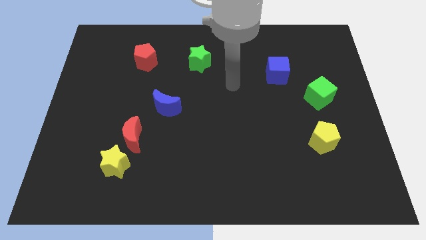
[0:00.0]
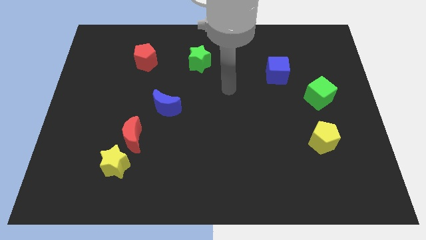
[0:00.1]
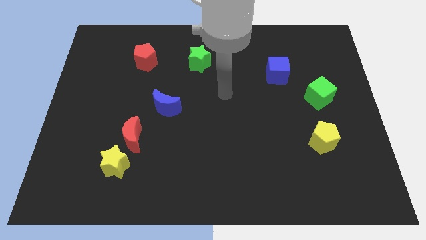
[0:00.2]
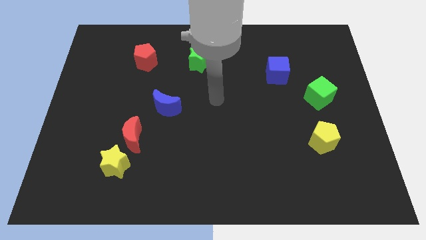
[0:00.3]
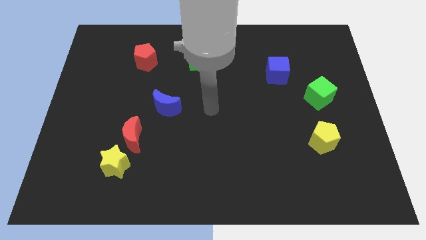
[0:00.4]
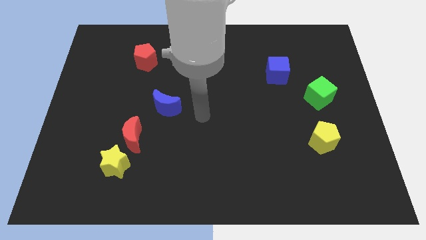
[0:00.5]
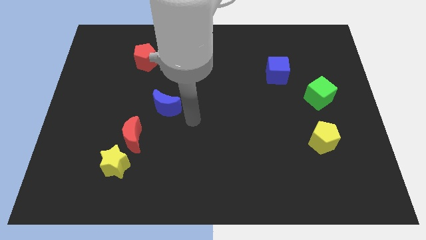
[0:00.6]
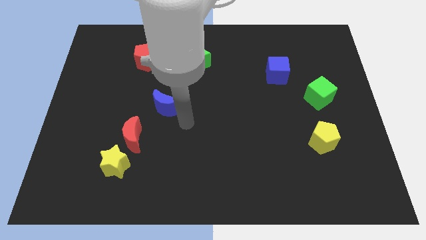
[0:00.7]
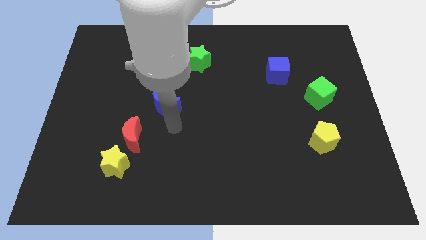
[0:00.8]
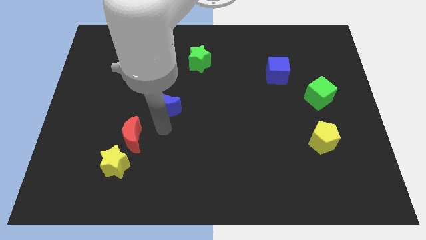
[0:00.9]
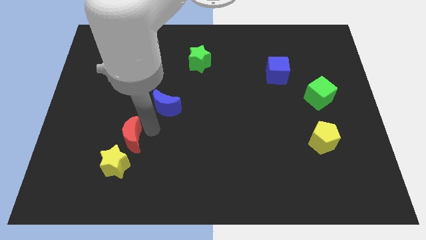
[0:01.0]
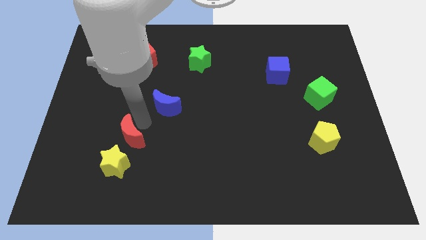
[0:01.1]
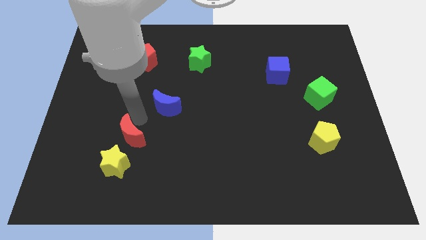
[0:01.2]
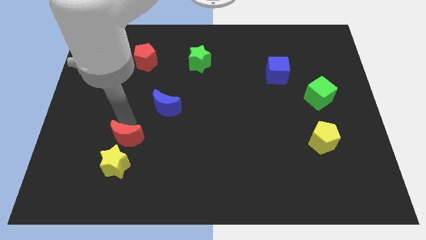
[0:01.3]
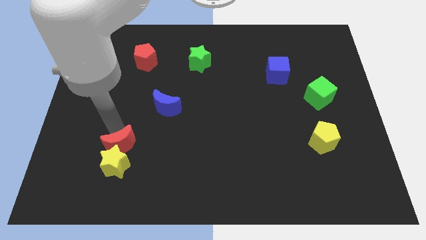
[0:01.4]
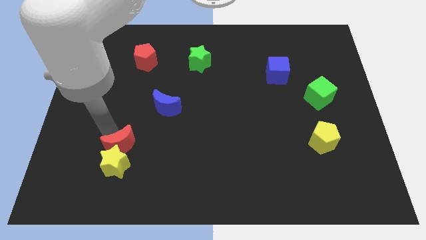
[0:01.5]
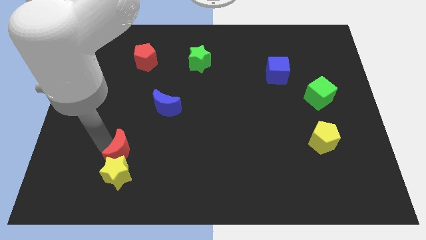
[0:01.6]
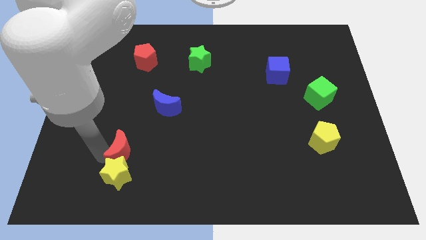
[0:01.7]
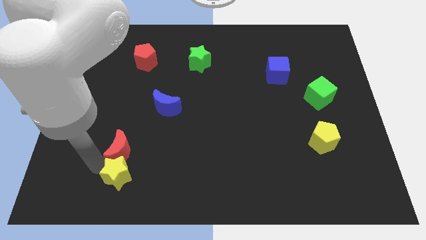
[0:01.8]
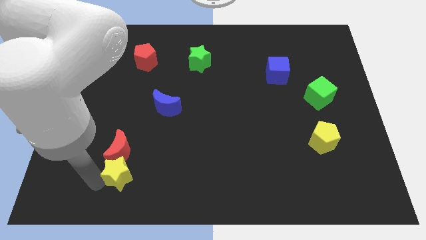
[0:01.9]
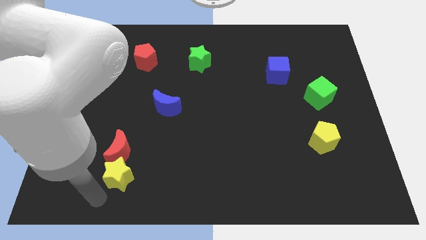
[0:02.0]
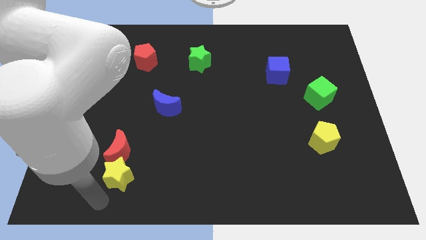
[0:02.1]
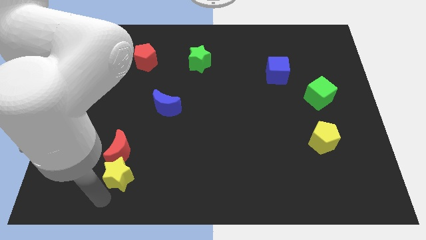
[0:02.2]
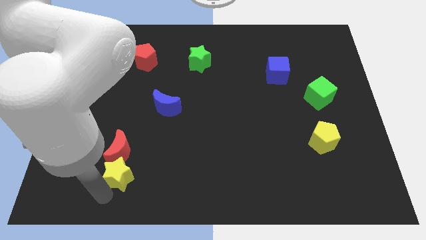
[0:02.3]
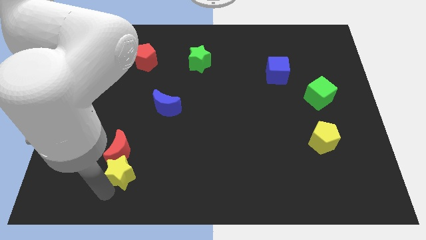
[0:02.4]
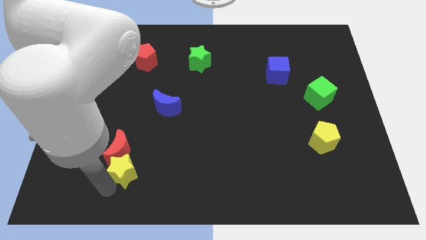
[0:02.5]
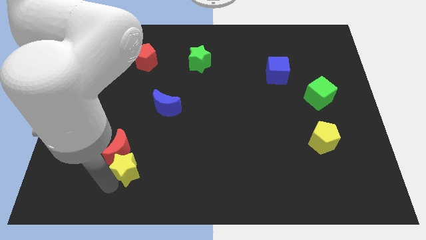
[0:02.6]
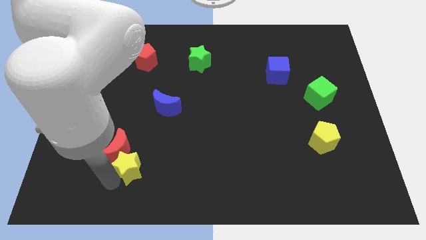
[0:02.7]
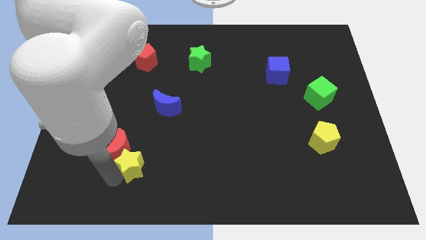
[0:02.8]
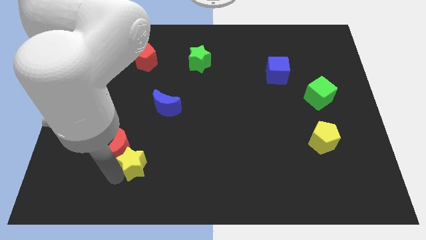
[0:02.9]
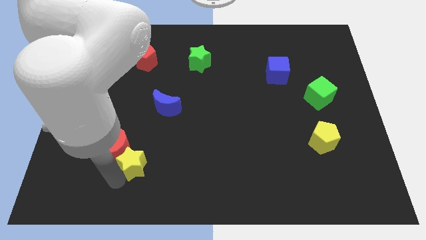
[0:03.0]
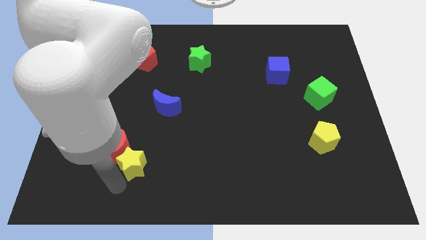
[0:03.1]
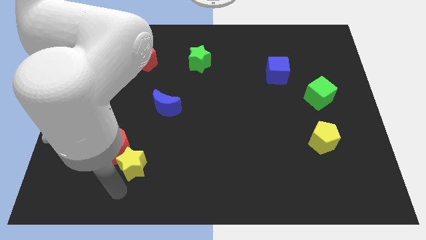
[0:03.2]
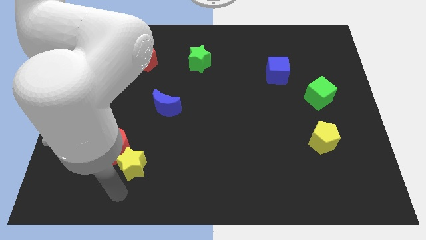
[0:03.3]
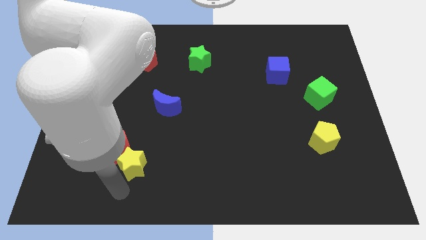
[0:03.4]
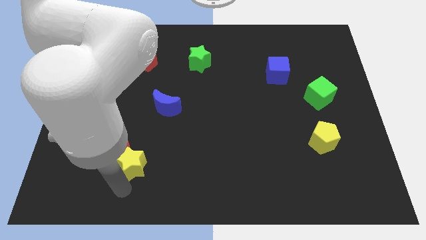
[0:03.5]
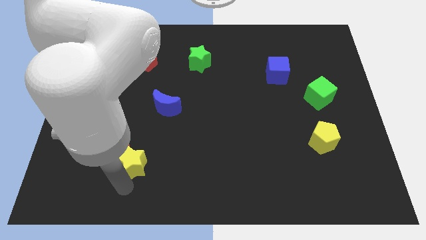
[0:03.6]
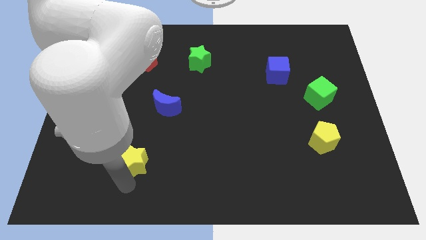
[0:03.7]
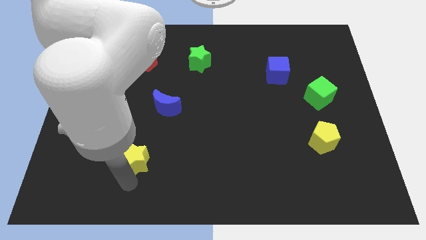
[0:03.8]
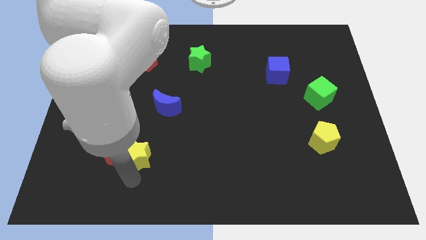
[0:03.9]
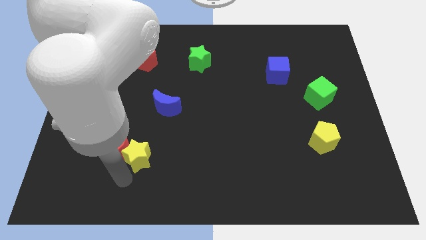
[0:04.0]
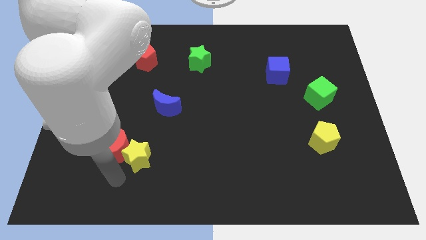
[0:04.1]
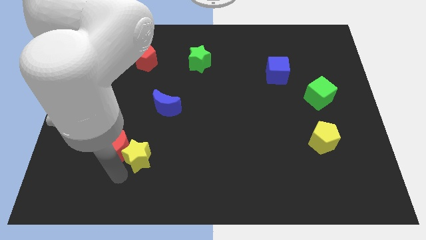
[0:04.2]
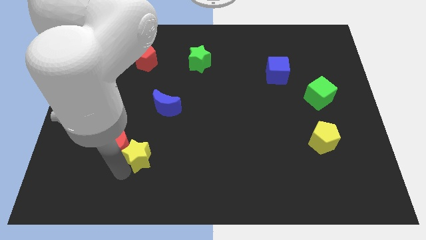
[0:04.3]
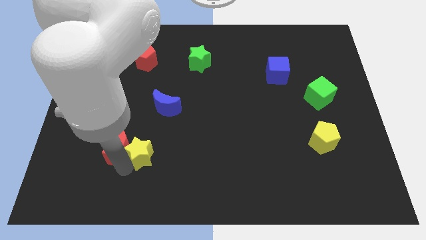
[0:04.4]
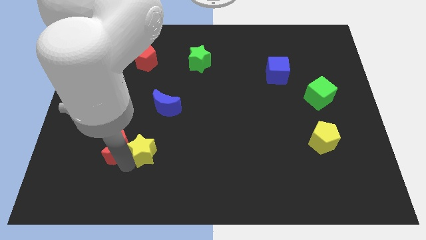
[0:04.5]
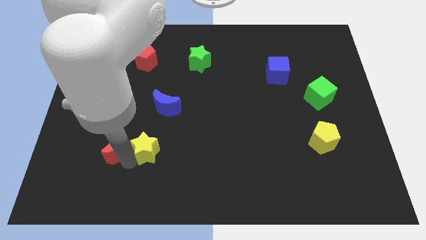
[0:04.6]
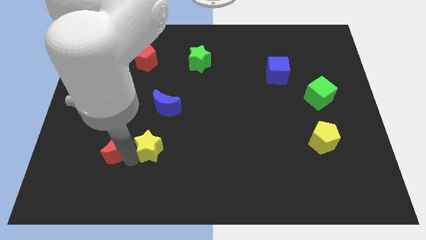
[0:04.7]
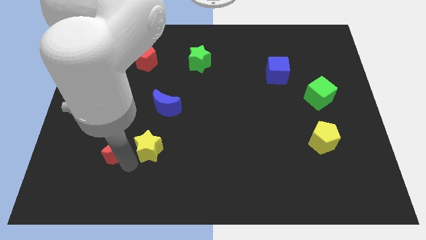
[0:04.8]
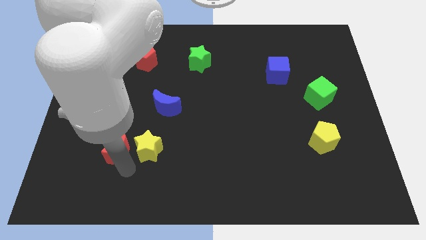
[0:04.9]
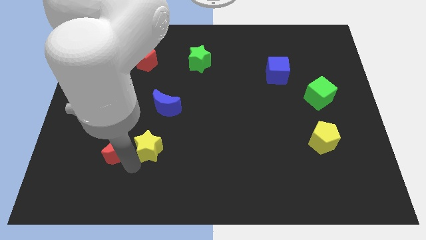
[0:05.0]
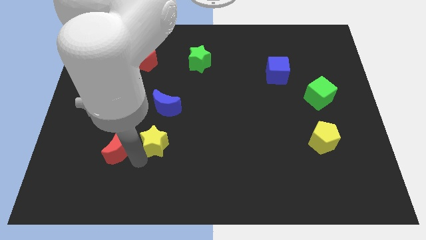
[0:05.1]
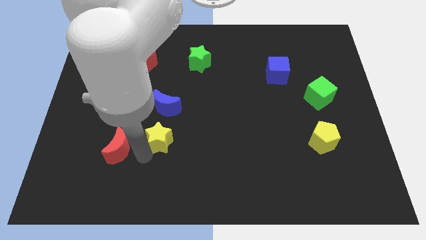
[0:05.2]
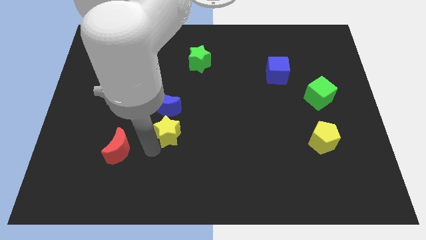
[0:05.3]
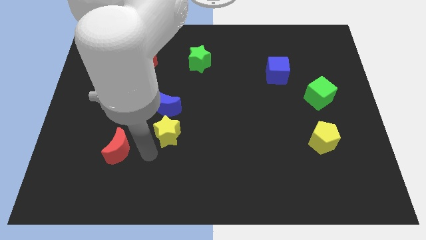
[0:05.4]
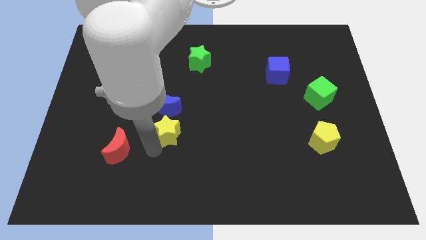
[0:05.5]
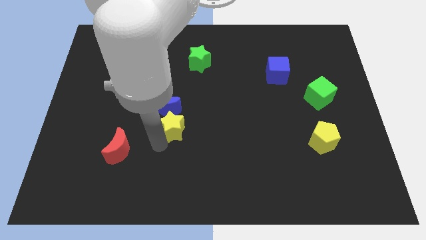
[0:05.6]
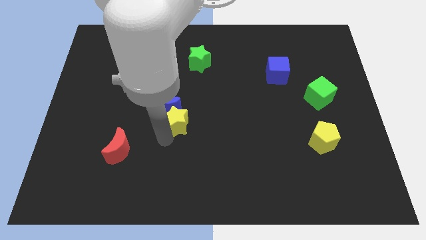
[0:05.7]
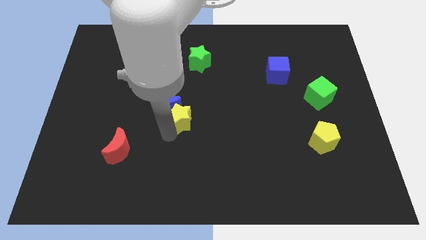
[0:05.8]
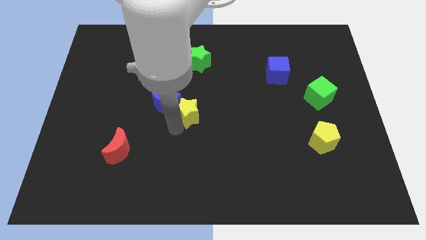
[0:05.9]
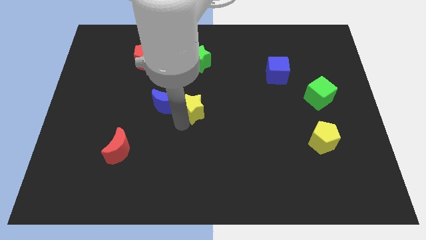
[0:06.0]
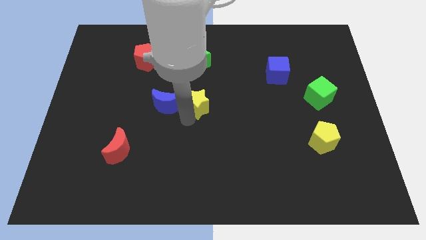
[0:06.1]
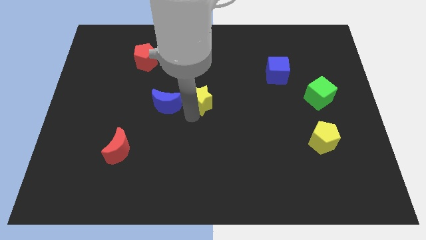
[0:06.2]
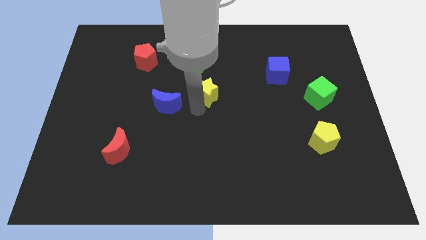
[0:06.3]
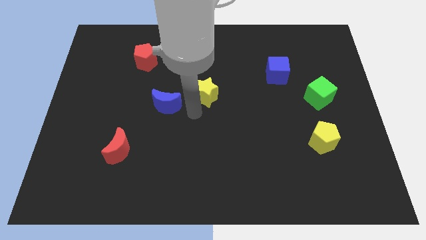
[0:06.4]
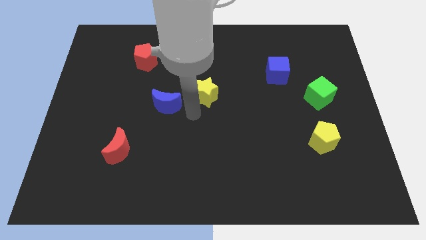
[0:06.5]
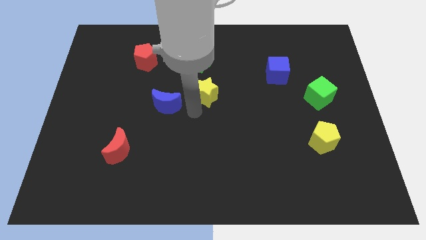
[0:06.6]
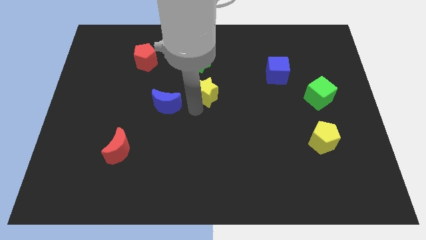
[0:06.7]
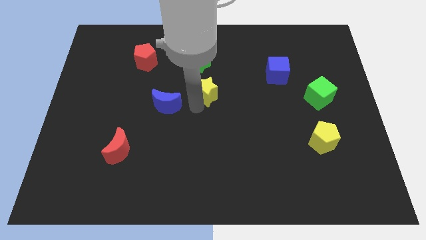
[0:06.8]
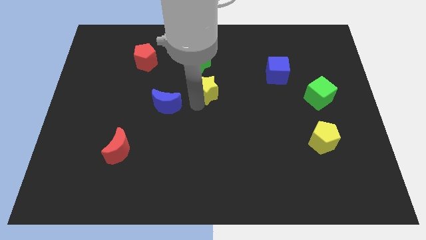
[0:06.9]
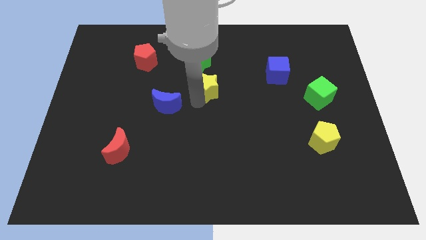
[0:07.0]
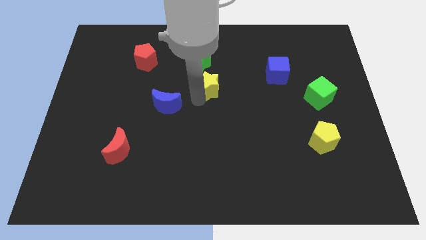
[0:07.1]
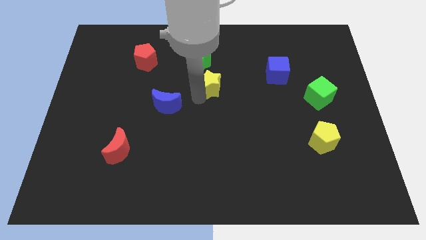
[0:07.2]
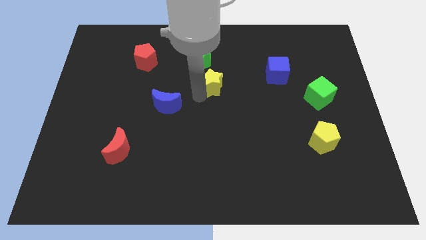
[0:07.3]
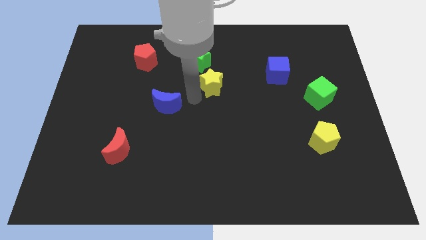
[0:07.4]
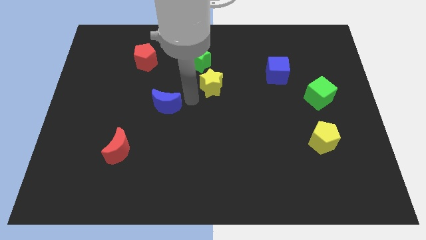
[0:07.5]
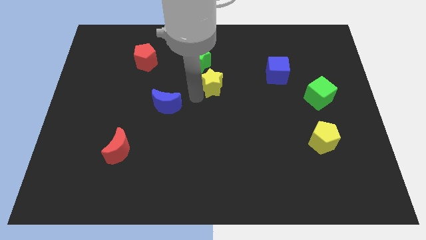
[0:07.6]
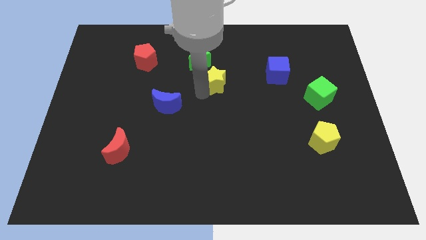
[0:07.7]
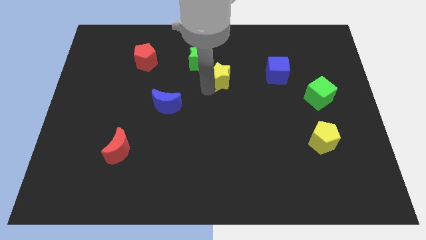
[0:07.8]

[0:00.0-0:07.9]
move the yellow star just left of the blue cube
